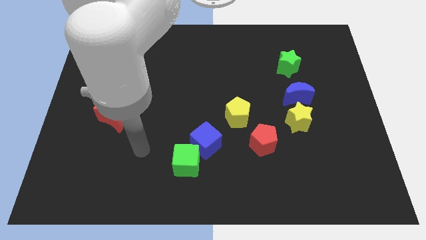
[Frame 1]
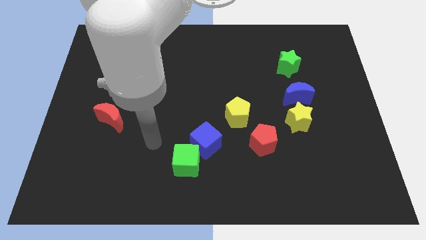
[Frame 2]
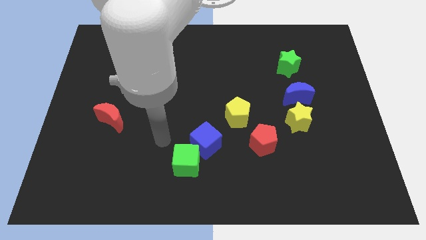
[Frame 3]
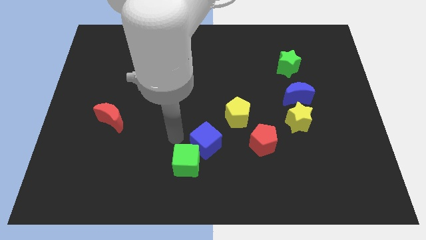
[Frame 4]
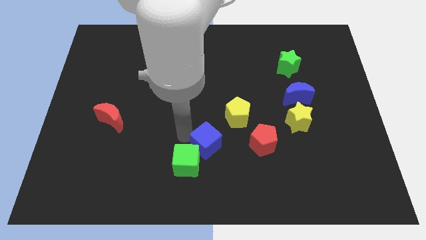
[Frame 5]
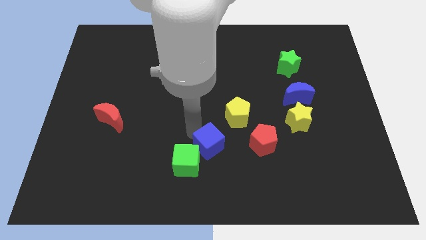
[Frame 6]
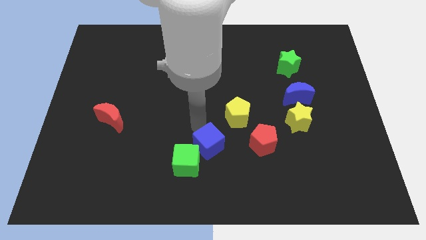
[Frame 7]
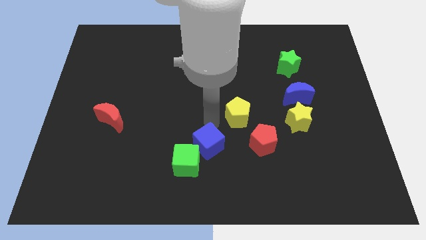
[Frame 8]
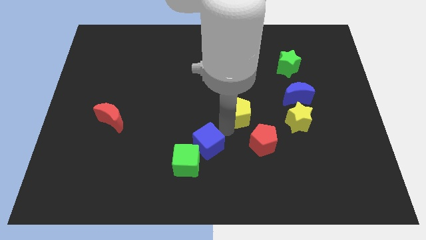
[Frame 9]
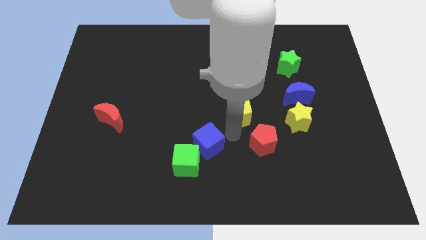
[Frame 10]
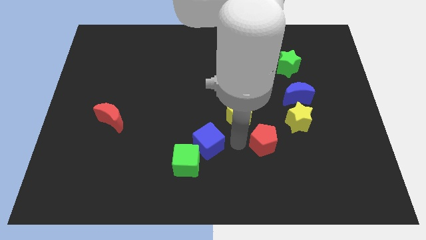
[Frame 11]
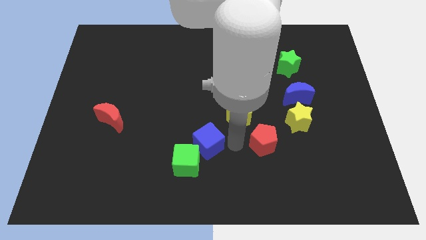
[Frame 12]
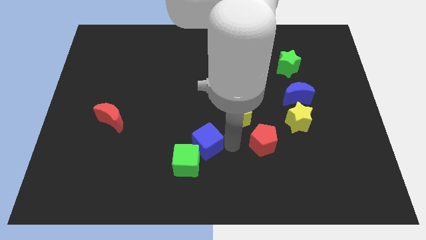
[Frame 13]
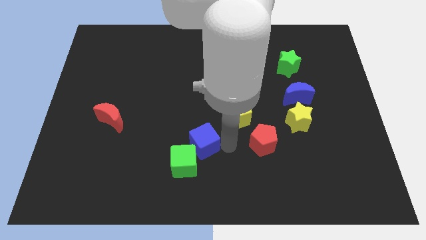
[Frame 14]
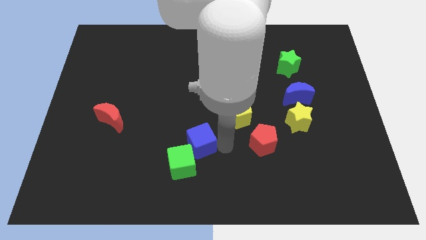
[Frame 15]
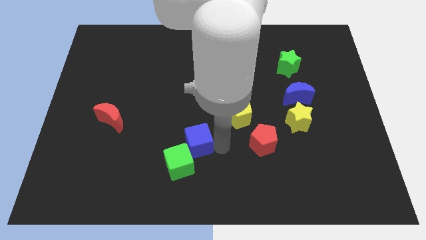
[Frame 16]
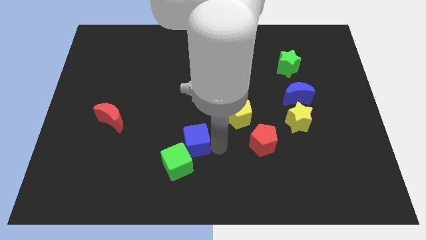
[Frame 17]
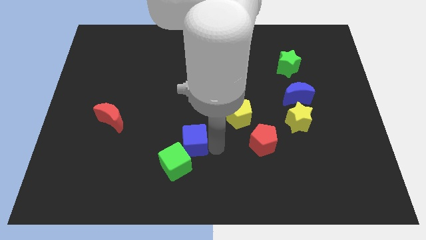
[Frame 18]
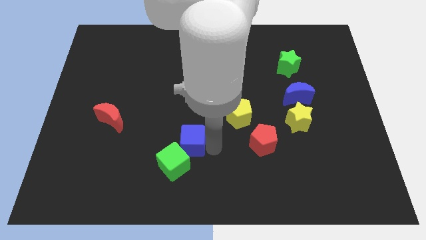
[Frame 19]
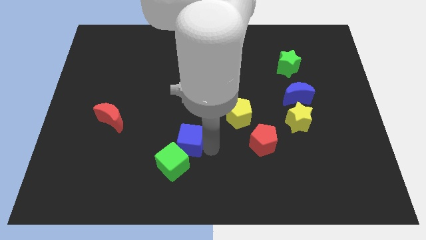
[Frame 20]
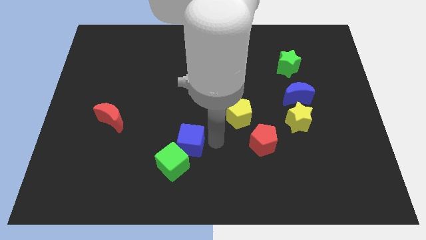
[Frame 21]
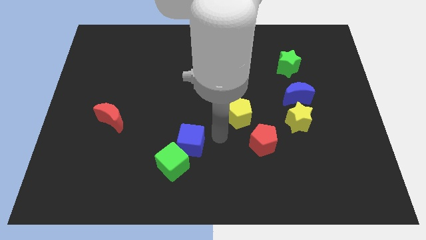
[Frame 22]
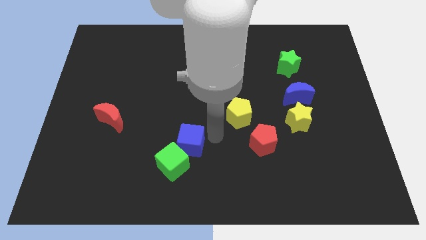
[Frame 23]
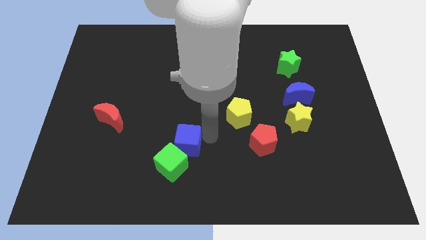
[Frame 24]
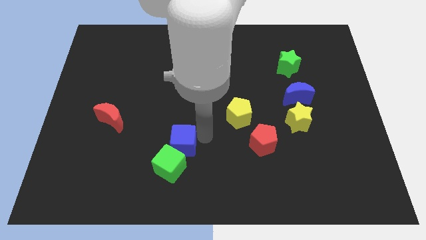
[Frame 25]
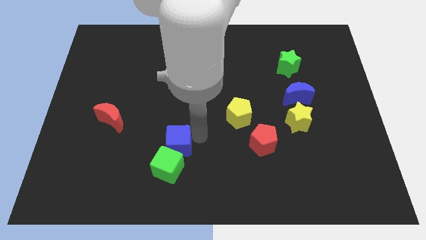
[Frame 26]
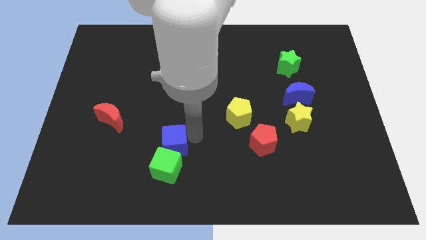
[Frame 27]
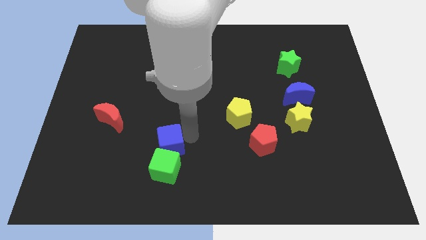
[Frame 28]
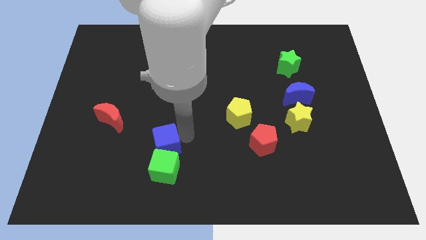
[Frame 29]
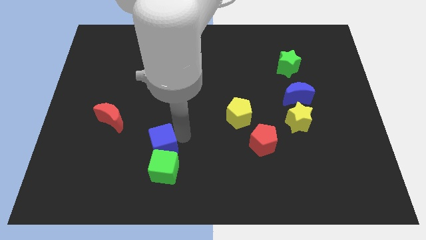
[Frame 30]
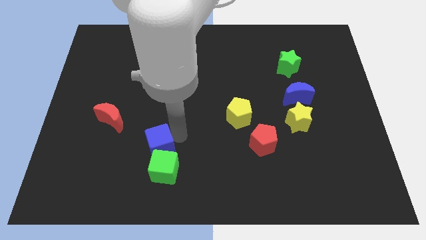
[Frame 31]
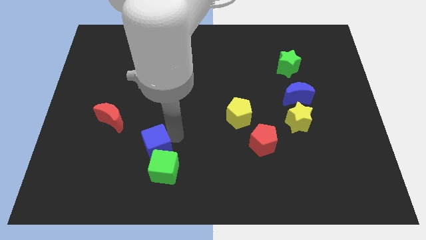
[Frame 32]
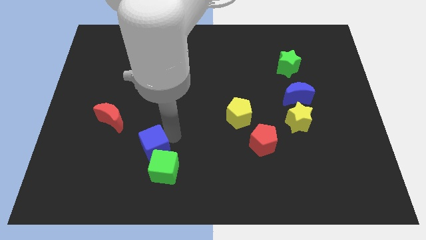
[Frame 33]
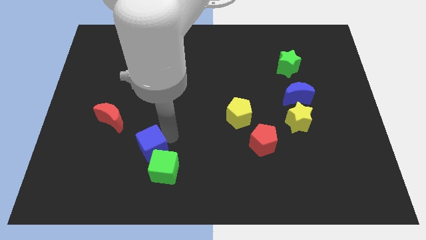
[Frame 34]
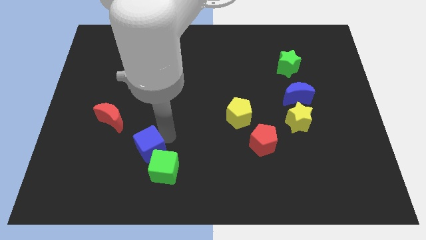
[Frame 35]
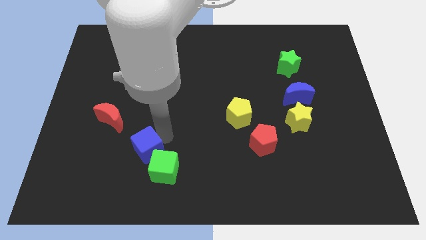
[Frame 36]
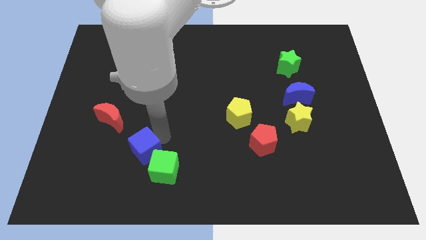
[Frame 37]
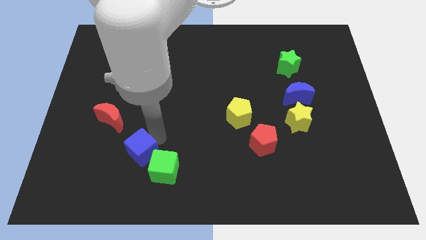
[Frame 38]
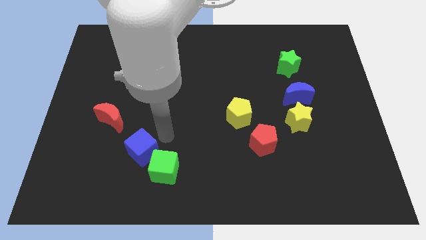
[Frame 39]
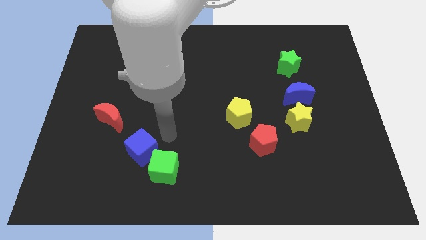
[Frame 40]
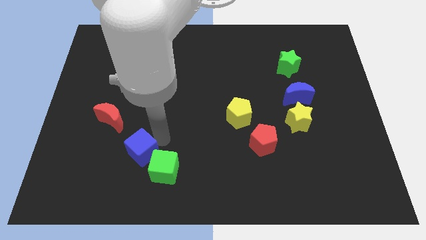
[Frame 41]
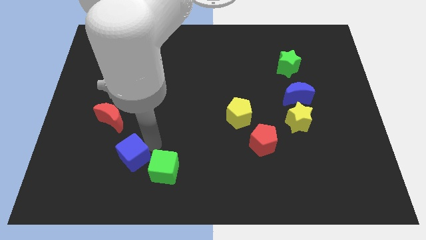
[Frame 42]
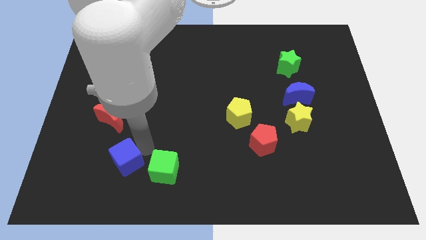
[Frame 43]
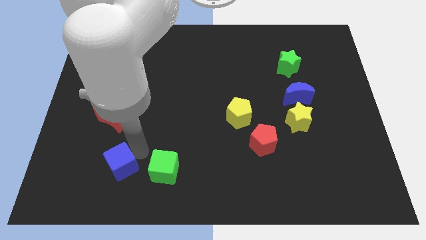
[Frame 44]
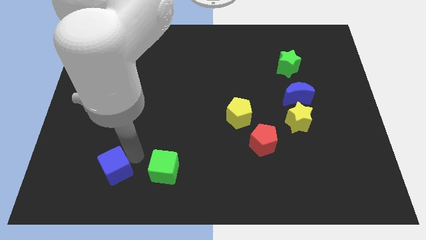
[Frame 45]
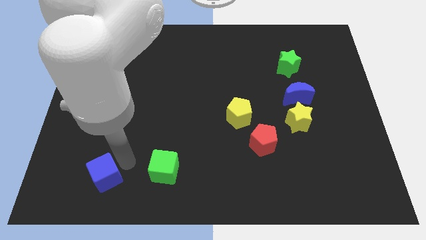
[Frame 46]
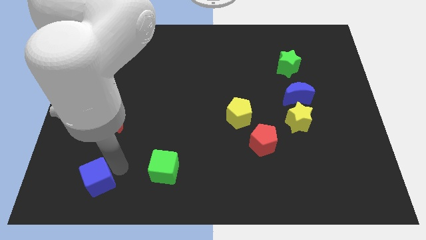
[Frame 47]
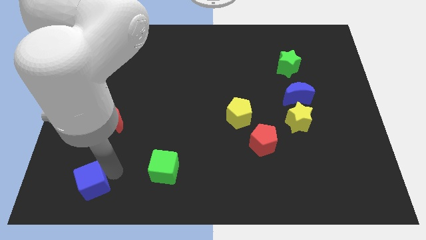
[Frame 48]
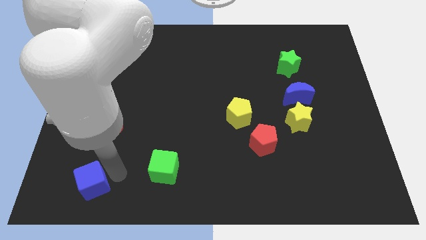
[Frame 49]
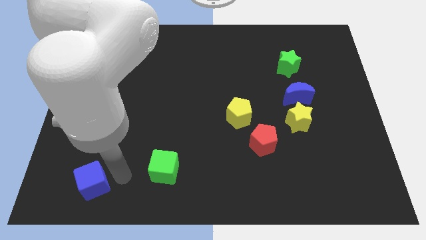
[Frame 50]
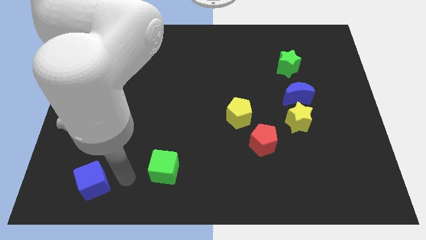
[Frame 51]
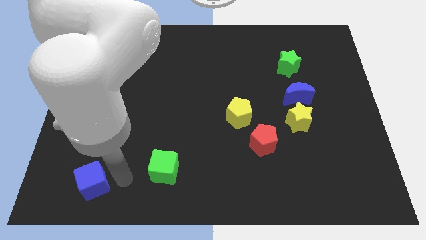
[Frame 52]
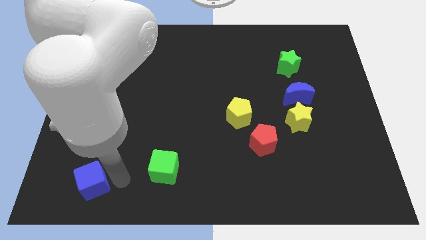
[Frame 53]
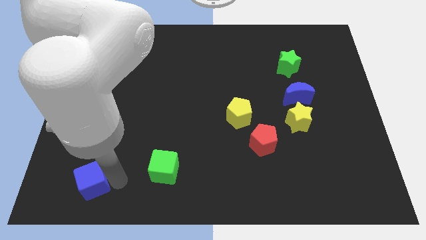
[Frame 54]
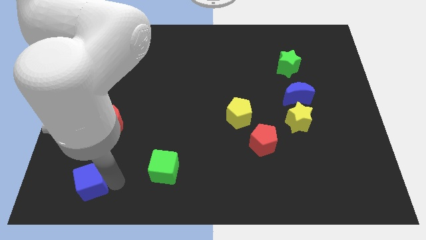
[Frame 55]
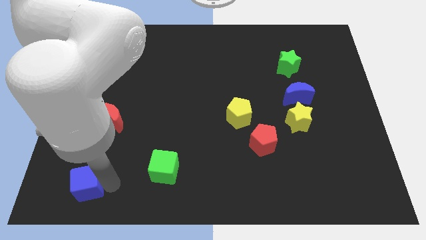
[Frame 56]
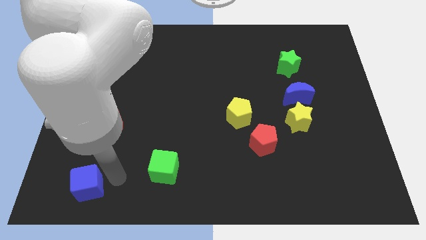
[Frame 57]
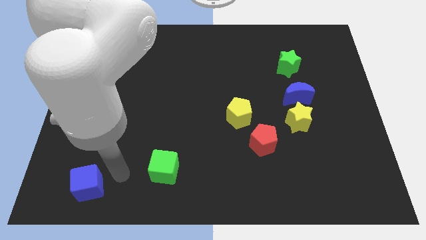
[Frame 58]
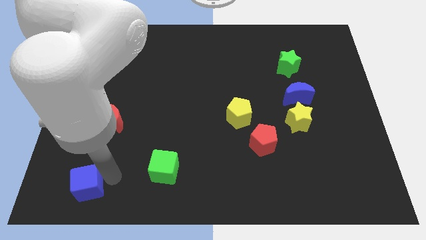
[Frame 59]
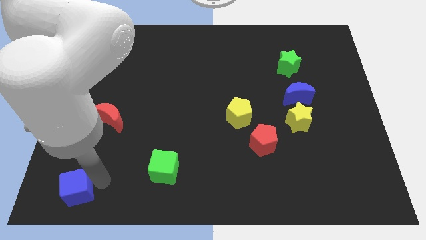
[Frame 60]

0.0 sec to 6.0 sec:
put the blue cube to the lower left corner
